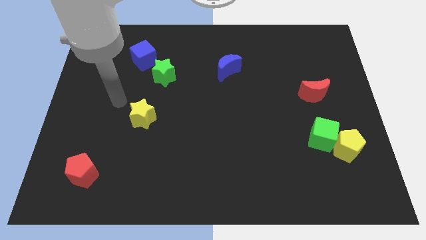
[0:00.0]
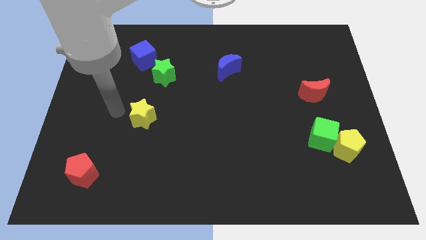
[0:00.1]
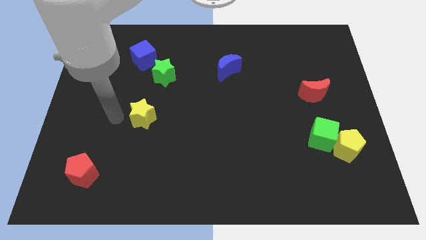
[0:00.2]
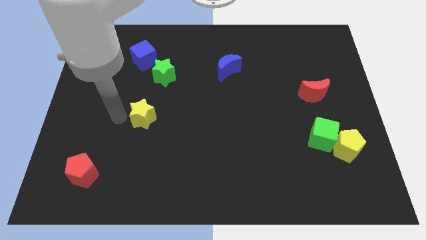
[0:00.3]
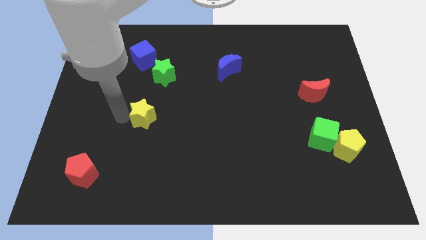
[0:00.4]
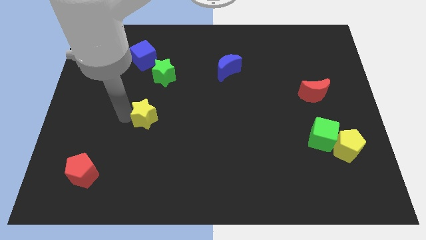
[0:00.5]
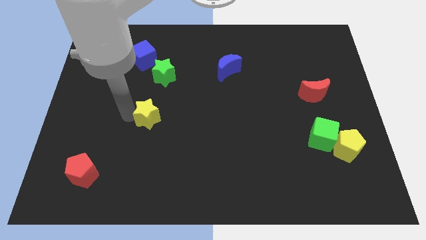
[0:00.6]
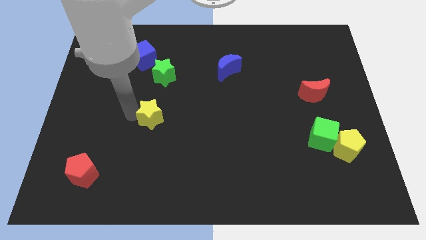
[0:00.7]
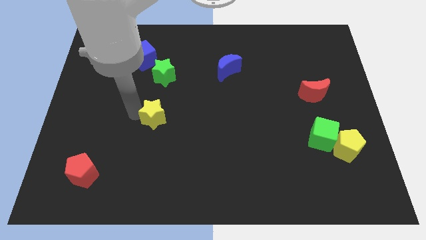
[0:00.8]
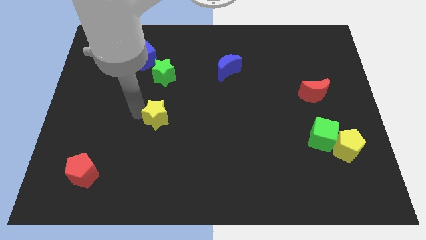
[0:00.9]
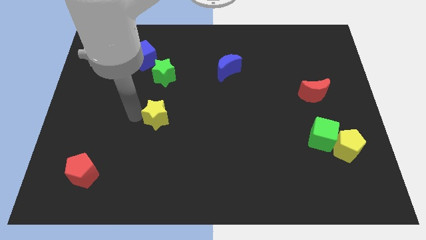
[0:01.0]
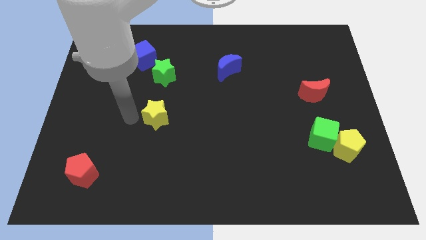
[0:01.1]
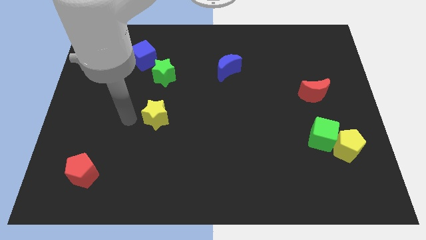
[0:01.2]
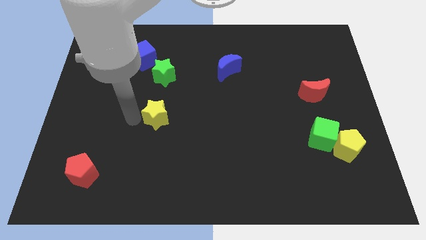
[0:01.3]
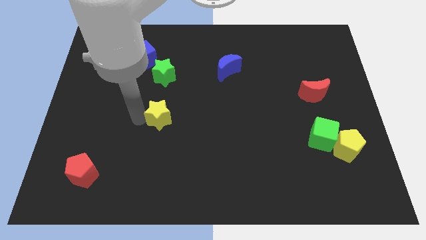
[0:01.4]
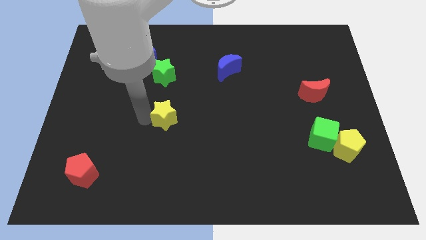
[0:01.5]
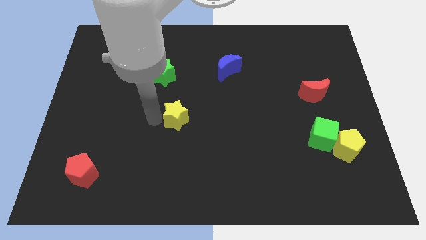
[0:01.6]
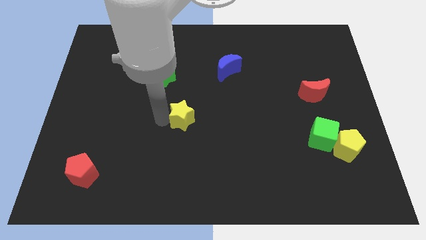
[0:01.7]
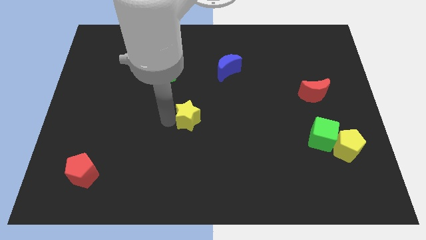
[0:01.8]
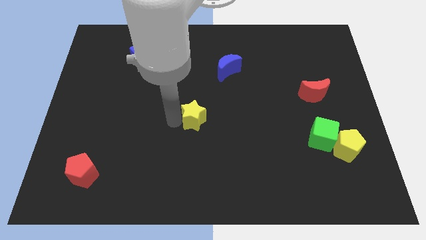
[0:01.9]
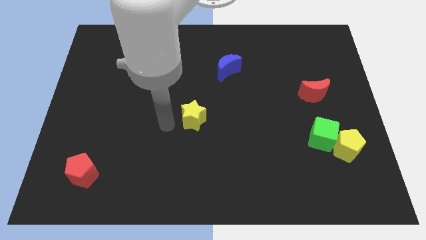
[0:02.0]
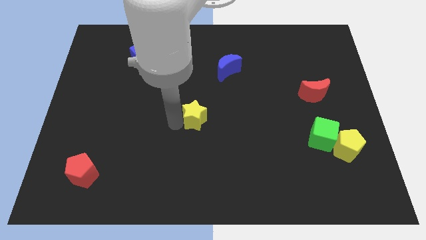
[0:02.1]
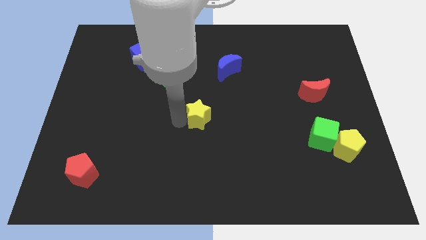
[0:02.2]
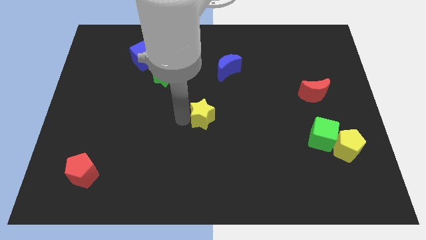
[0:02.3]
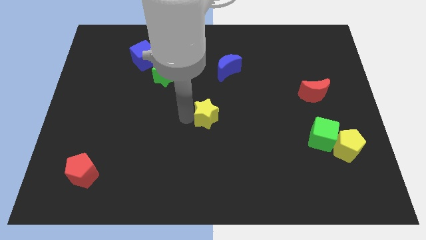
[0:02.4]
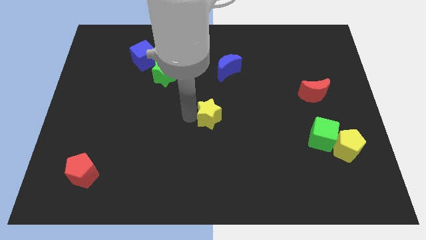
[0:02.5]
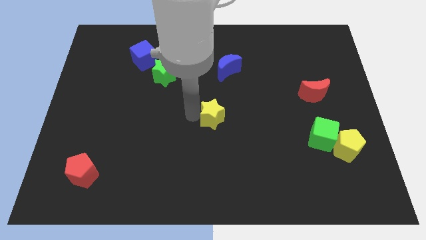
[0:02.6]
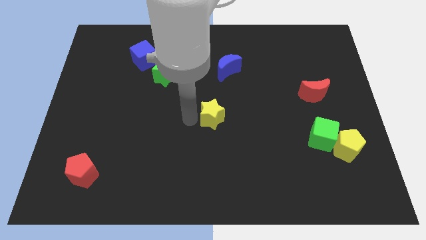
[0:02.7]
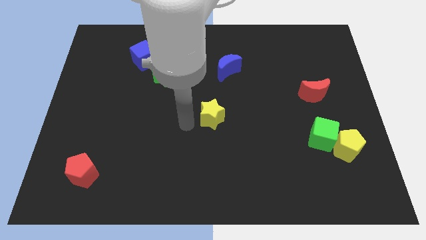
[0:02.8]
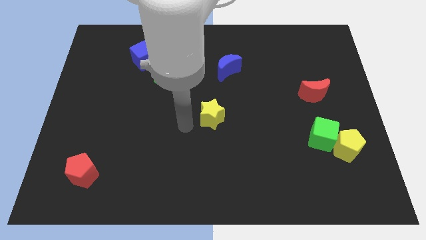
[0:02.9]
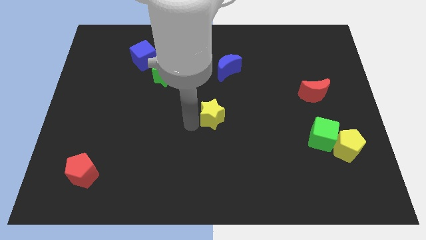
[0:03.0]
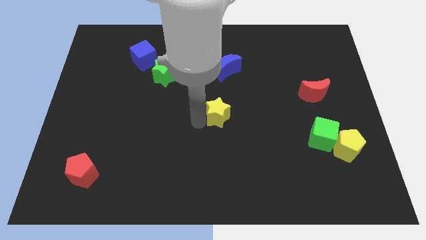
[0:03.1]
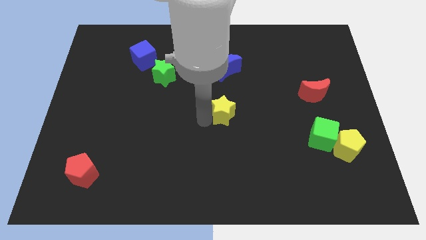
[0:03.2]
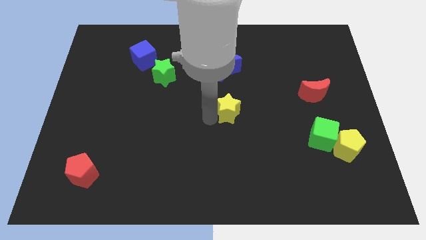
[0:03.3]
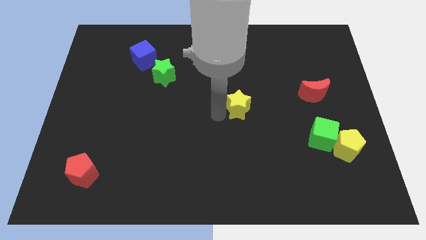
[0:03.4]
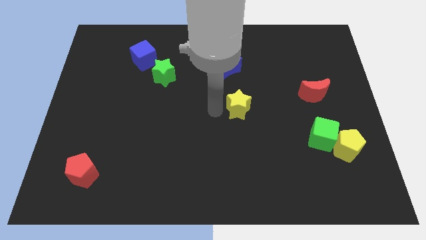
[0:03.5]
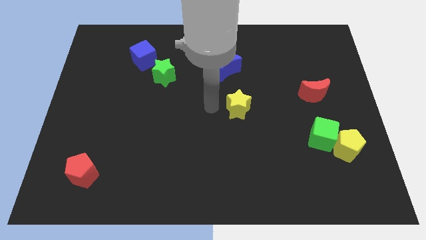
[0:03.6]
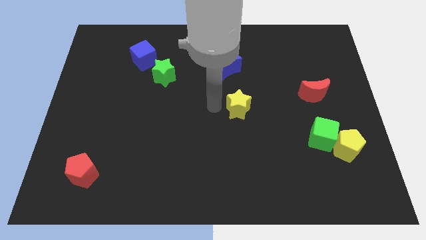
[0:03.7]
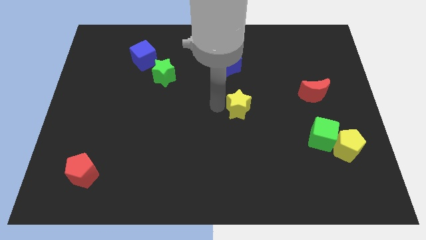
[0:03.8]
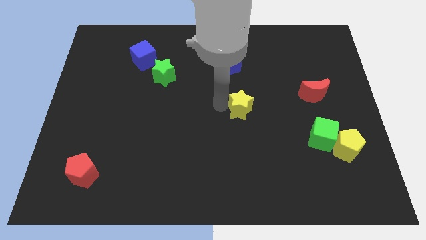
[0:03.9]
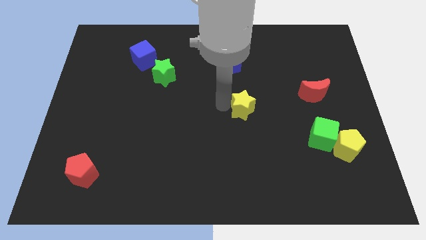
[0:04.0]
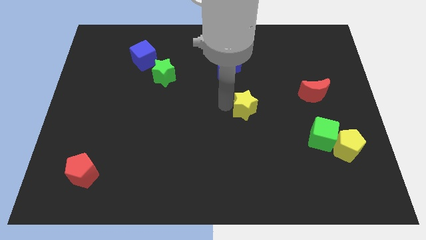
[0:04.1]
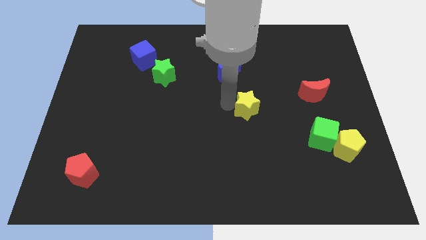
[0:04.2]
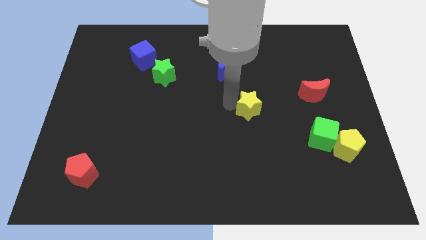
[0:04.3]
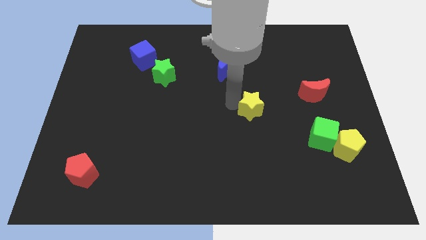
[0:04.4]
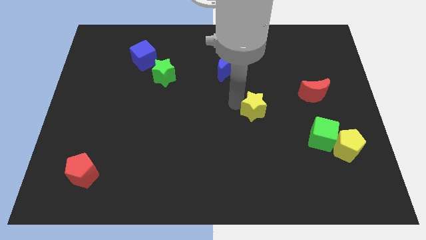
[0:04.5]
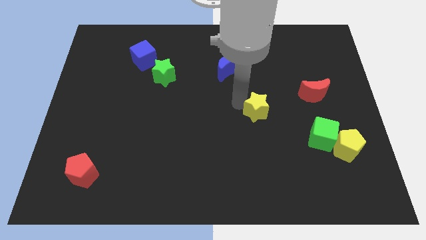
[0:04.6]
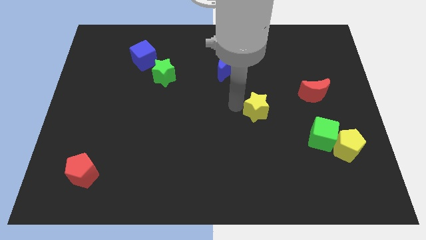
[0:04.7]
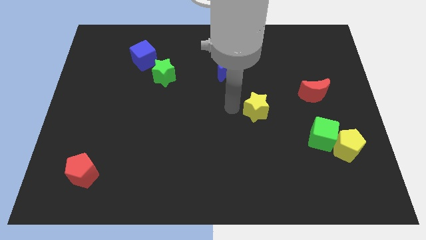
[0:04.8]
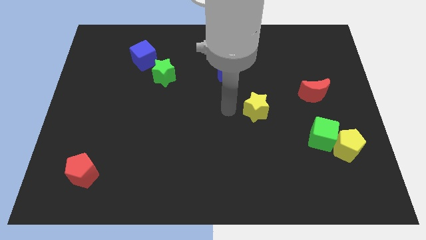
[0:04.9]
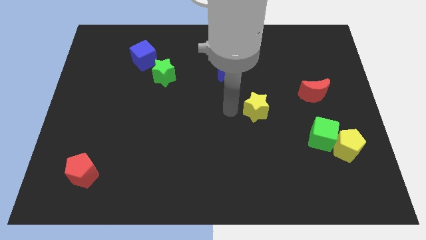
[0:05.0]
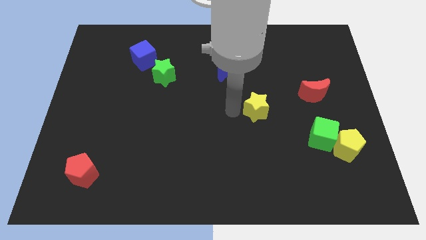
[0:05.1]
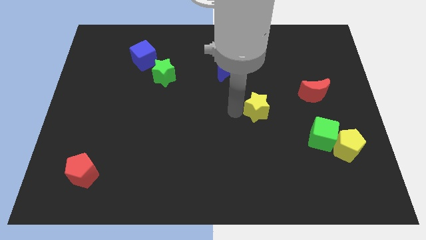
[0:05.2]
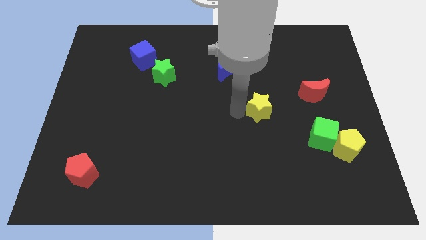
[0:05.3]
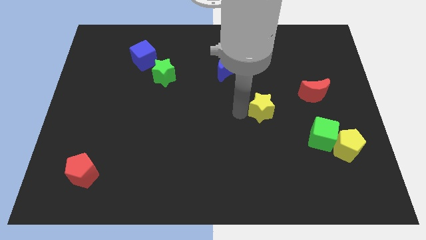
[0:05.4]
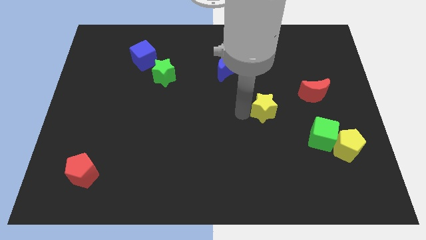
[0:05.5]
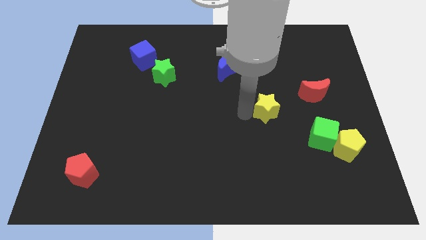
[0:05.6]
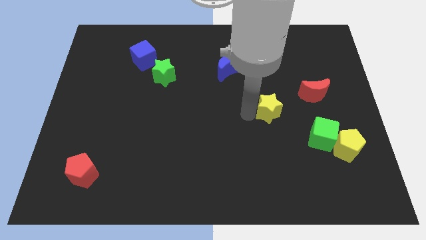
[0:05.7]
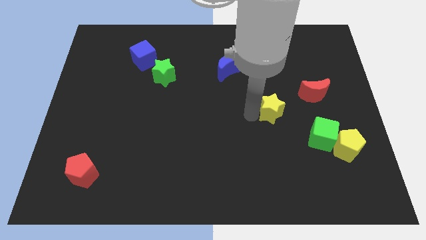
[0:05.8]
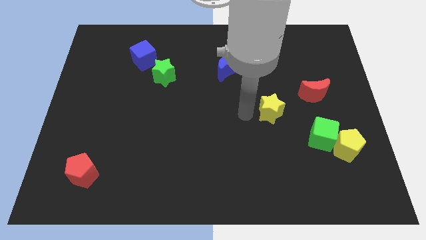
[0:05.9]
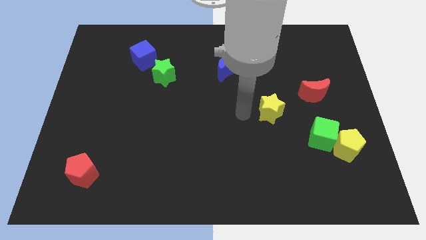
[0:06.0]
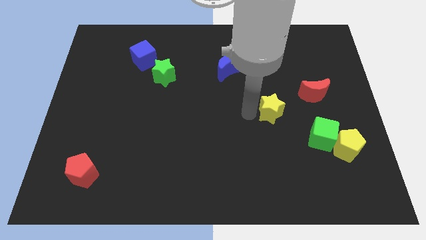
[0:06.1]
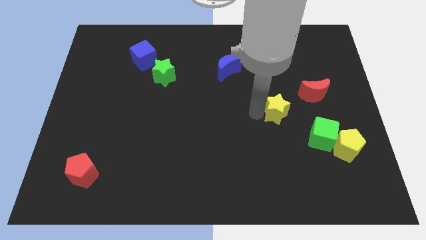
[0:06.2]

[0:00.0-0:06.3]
move the yellow star diagonally down and to the left of the red moon
